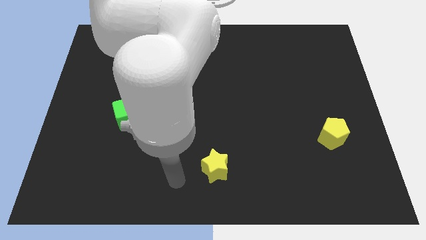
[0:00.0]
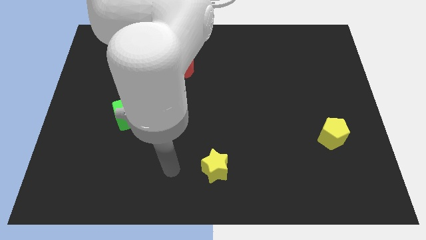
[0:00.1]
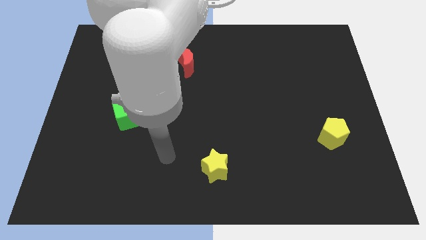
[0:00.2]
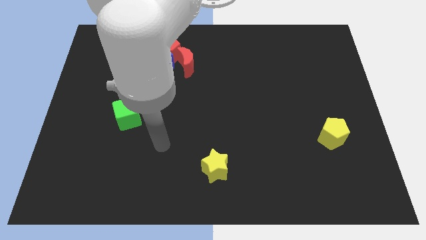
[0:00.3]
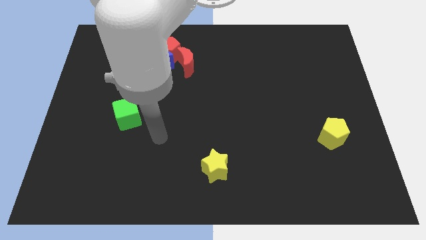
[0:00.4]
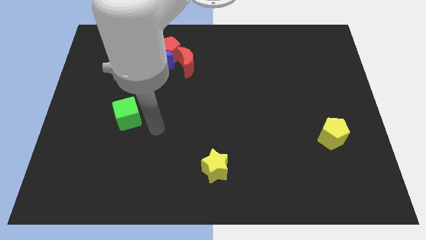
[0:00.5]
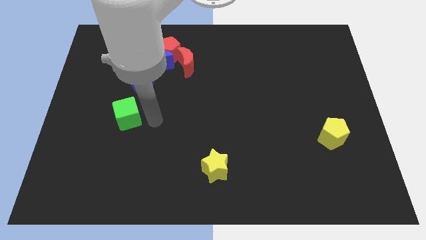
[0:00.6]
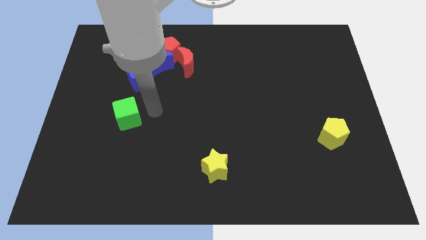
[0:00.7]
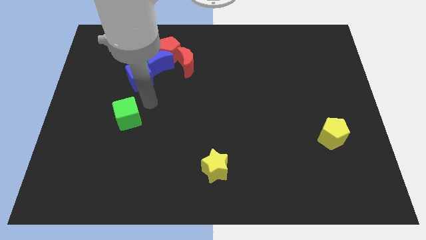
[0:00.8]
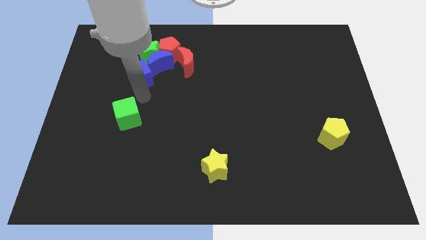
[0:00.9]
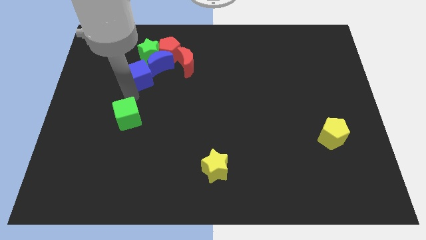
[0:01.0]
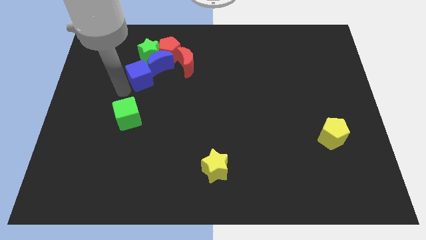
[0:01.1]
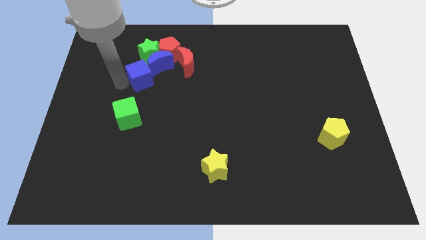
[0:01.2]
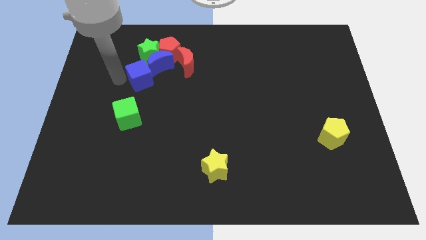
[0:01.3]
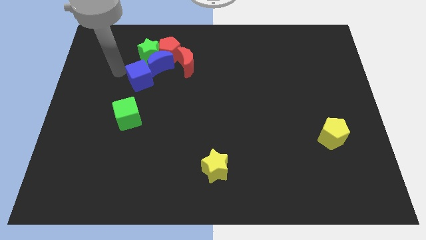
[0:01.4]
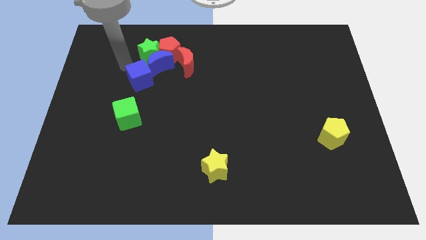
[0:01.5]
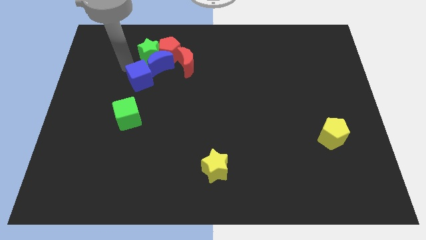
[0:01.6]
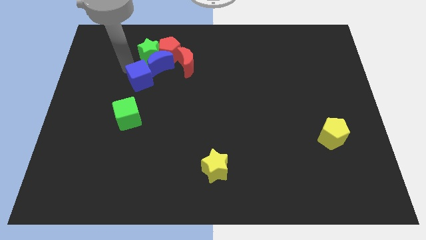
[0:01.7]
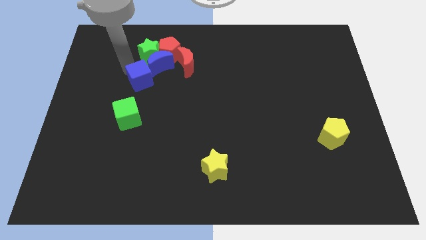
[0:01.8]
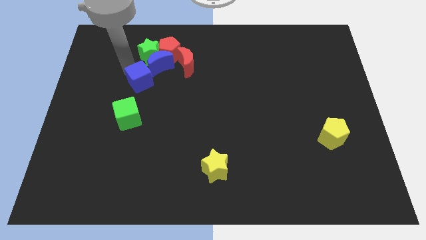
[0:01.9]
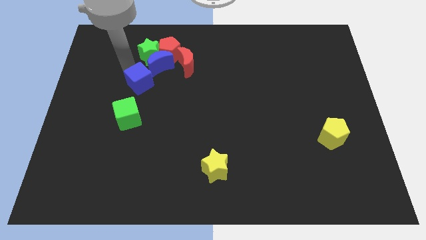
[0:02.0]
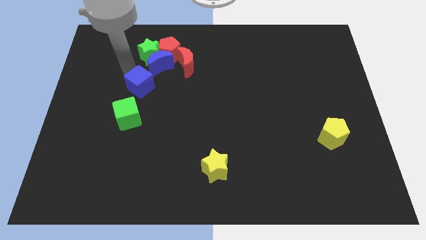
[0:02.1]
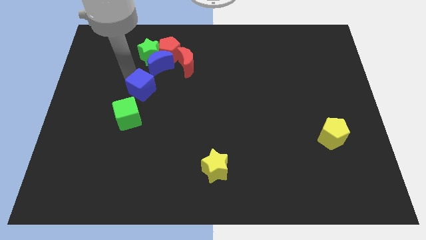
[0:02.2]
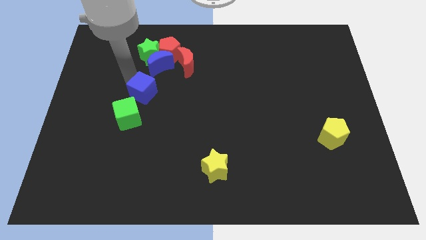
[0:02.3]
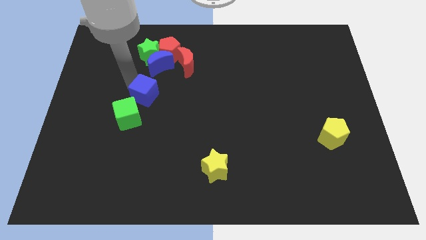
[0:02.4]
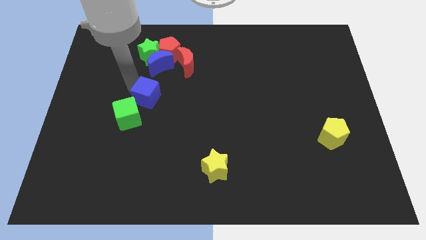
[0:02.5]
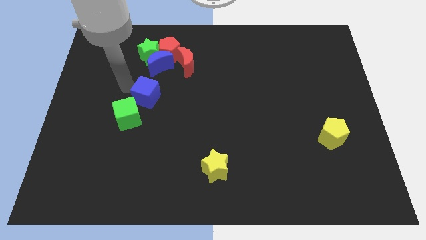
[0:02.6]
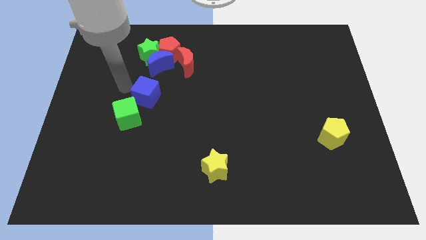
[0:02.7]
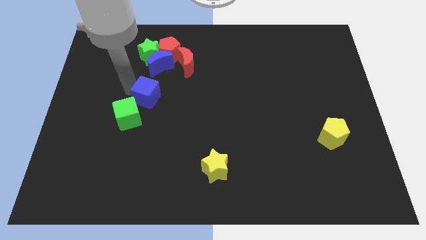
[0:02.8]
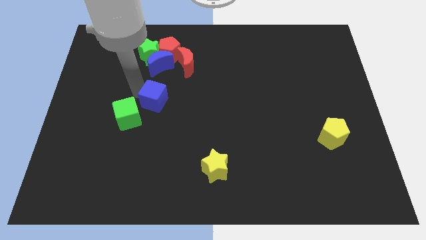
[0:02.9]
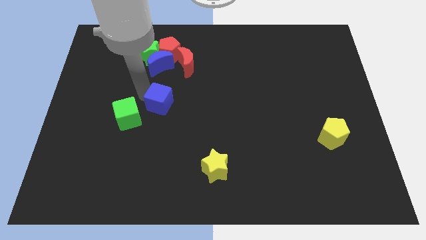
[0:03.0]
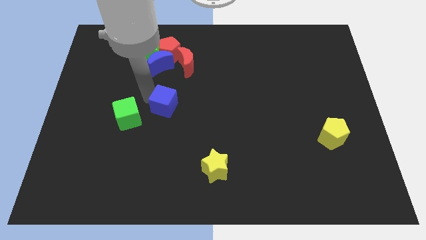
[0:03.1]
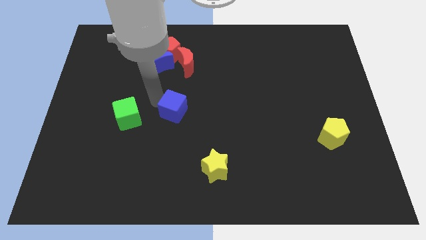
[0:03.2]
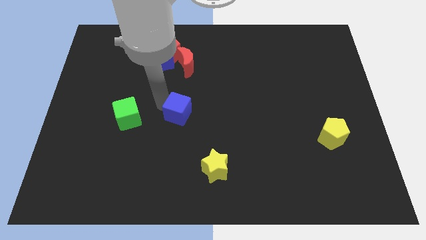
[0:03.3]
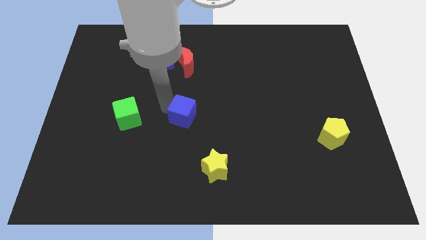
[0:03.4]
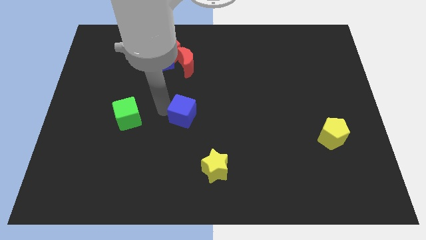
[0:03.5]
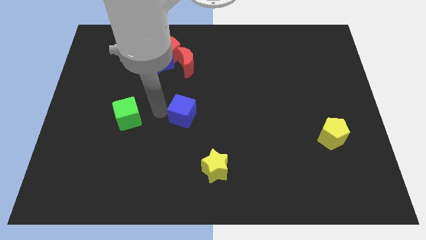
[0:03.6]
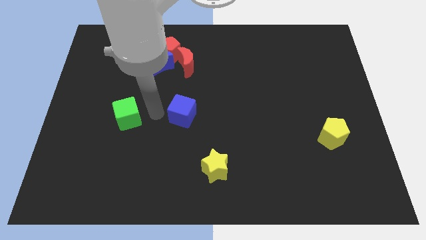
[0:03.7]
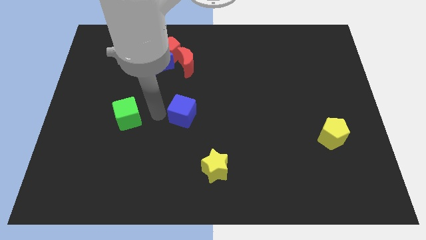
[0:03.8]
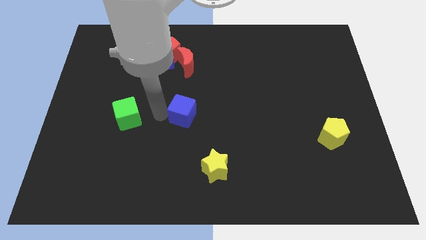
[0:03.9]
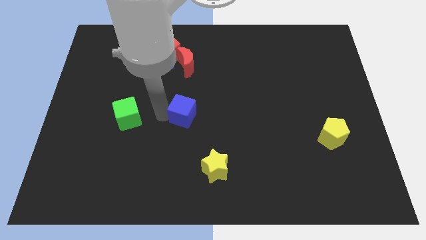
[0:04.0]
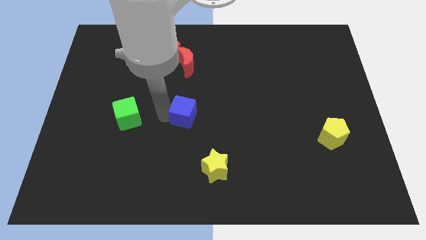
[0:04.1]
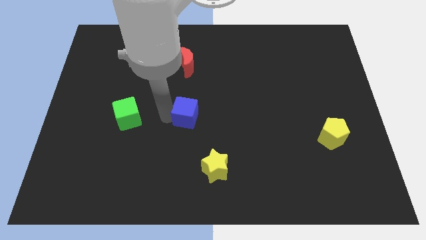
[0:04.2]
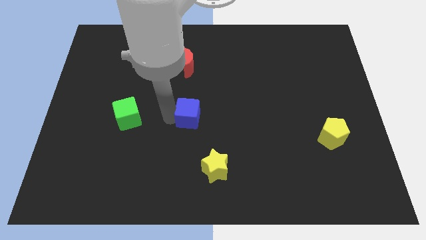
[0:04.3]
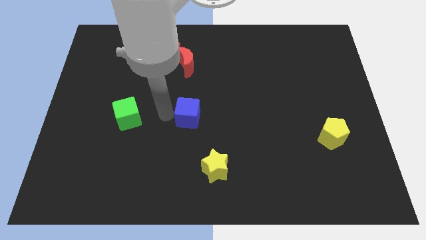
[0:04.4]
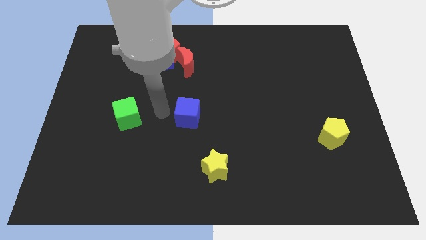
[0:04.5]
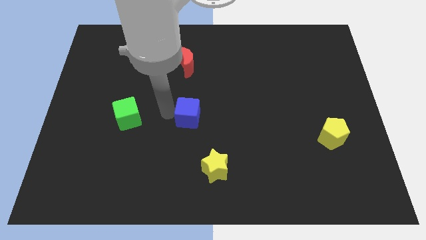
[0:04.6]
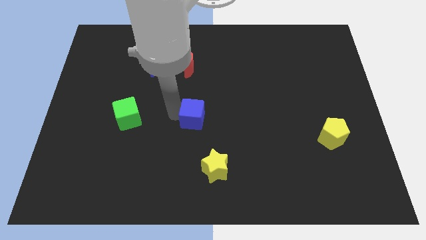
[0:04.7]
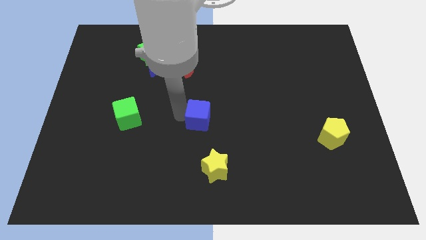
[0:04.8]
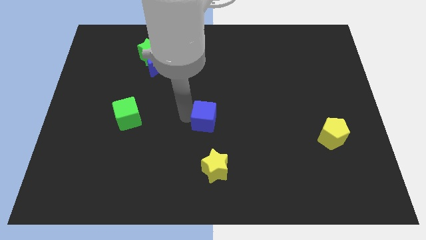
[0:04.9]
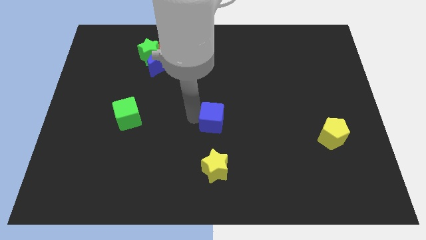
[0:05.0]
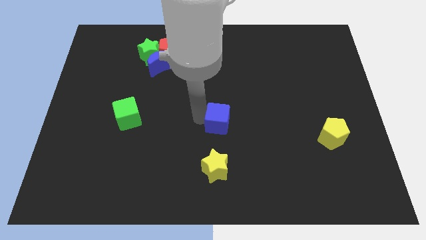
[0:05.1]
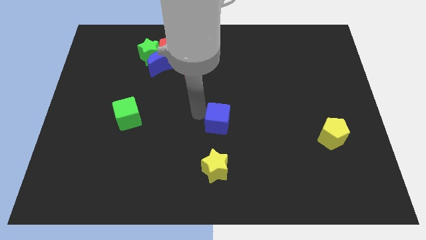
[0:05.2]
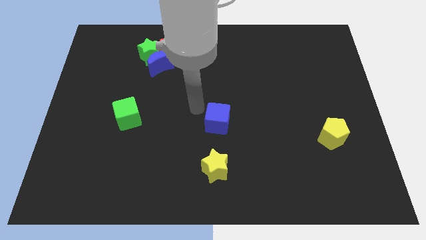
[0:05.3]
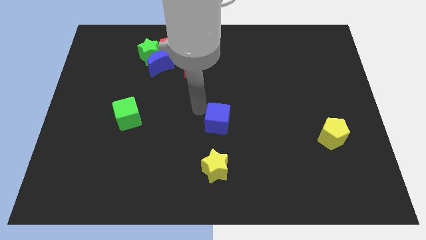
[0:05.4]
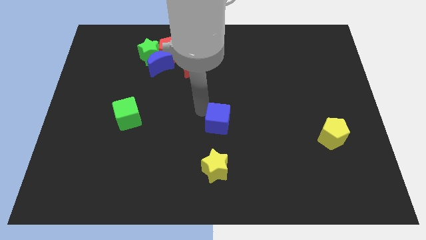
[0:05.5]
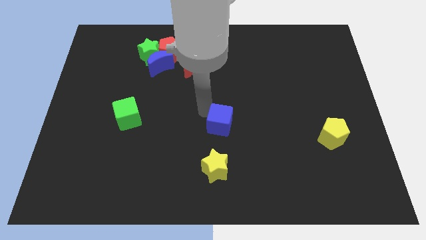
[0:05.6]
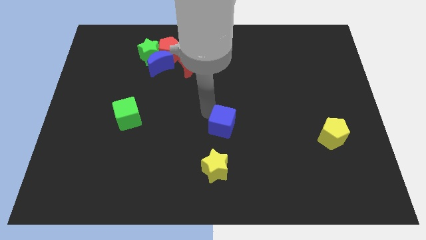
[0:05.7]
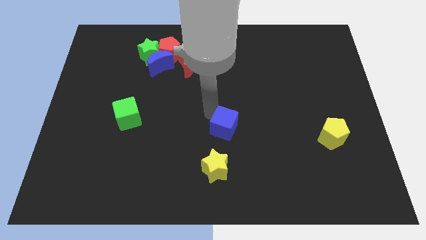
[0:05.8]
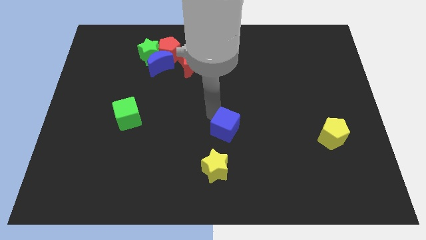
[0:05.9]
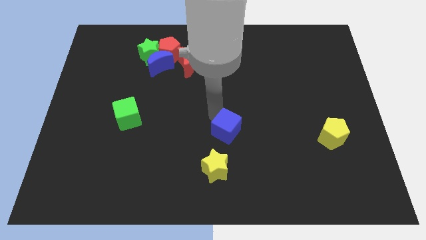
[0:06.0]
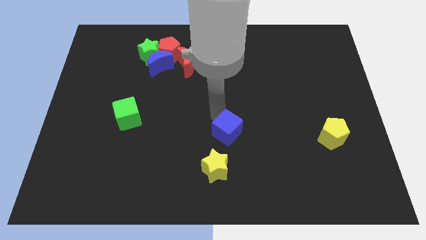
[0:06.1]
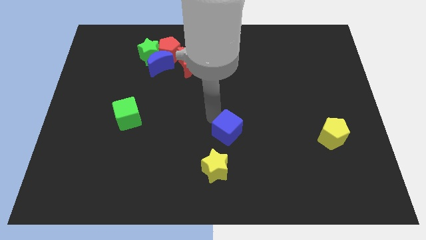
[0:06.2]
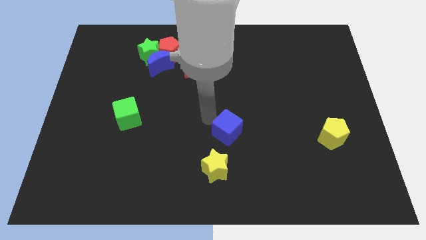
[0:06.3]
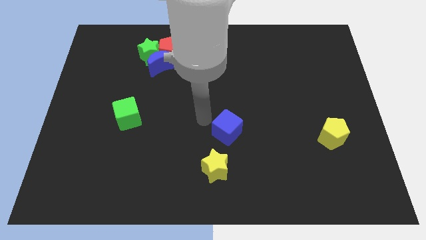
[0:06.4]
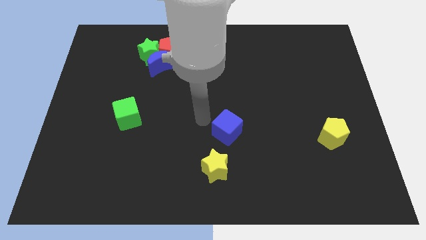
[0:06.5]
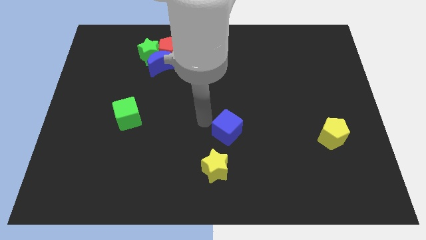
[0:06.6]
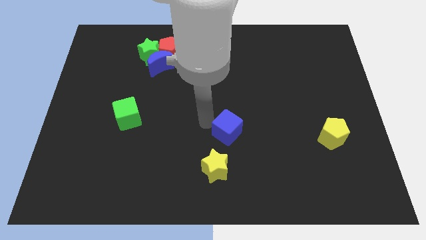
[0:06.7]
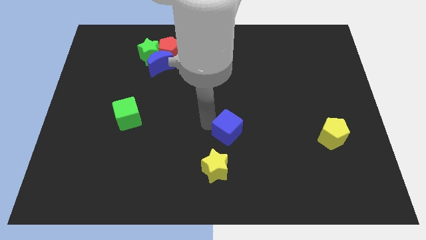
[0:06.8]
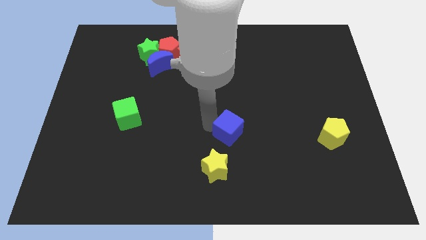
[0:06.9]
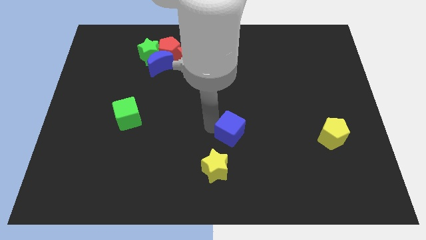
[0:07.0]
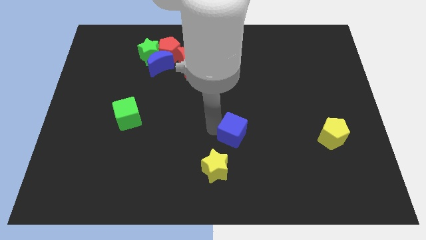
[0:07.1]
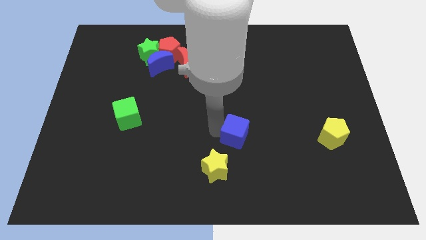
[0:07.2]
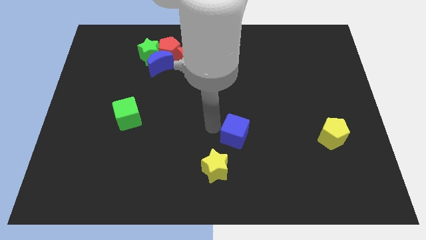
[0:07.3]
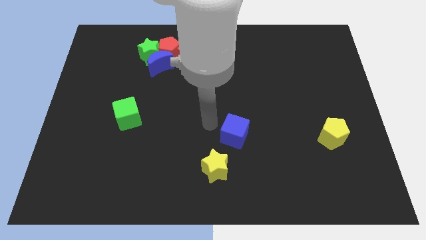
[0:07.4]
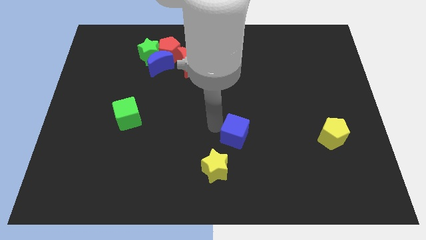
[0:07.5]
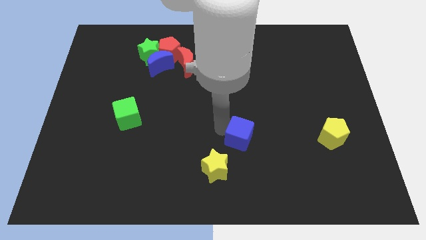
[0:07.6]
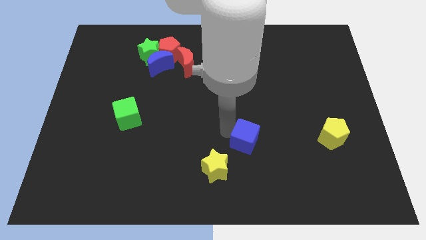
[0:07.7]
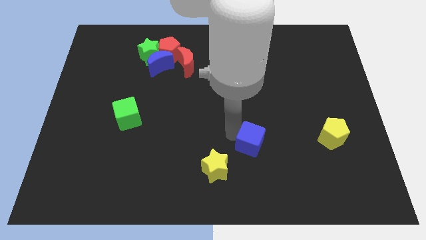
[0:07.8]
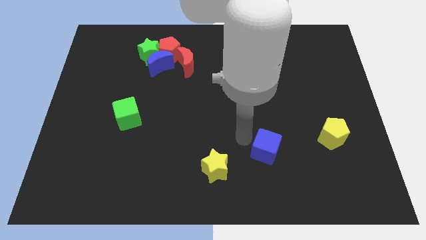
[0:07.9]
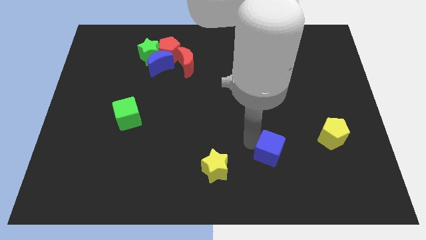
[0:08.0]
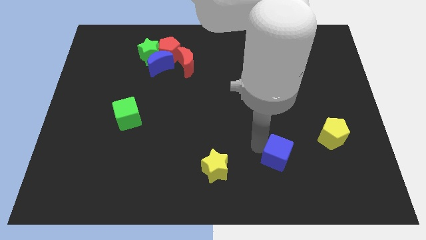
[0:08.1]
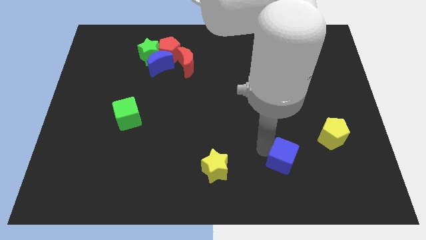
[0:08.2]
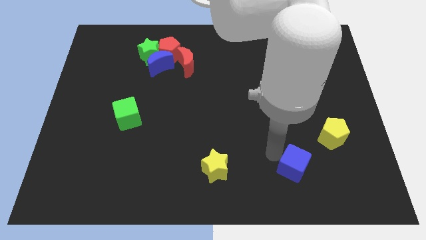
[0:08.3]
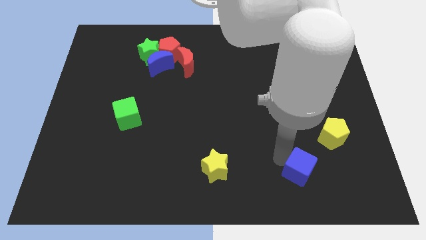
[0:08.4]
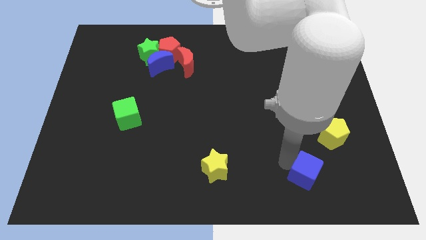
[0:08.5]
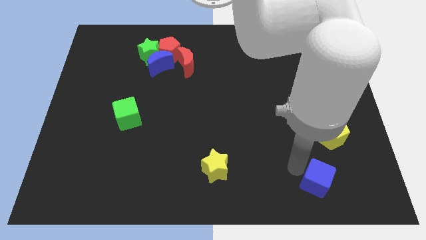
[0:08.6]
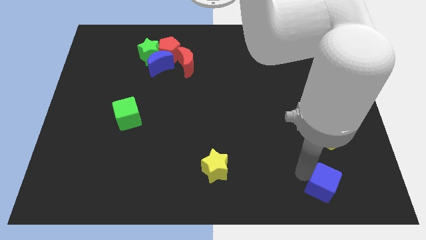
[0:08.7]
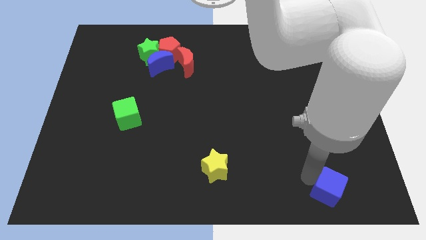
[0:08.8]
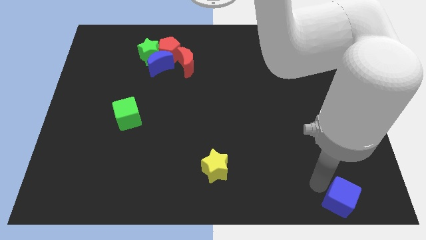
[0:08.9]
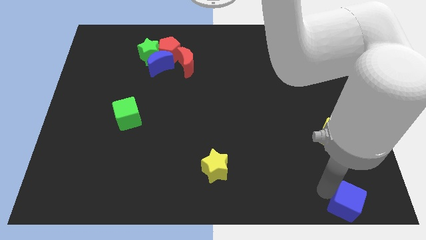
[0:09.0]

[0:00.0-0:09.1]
slide the blue cube to the lower right corner
